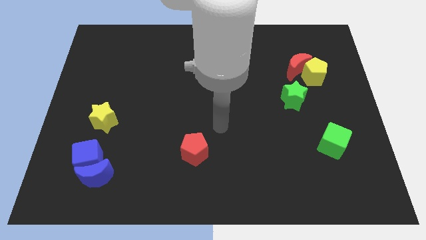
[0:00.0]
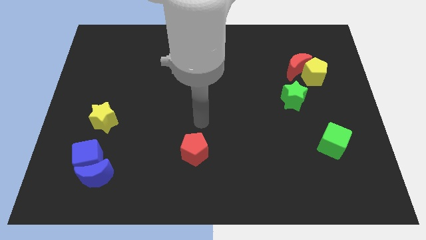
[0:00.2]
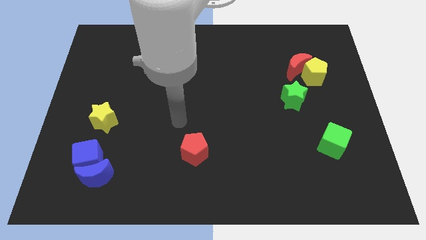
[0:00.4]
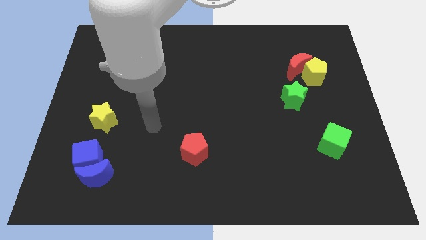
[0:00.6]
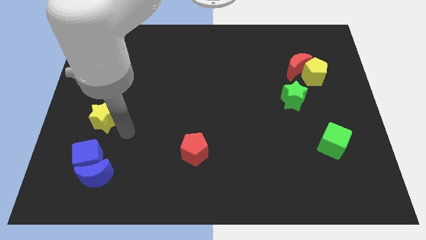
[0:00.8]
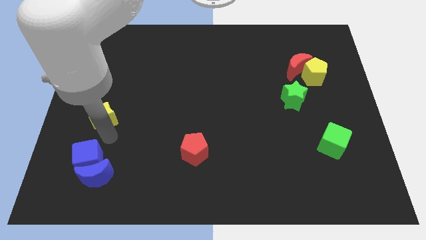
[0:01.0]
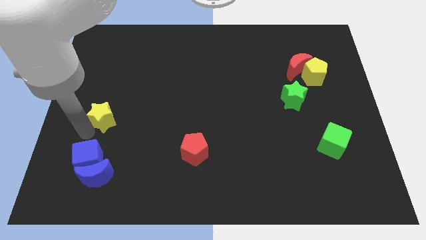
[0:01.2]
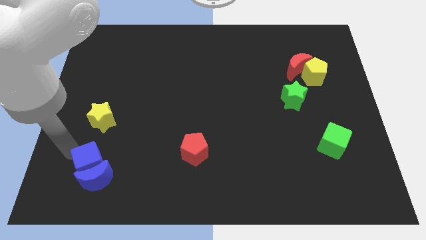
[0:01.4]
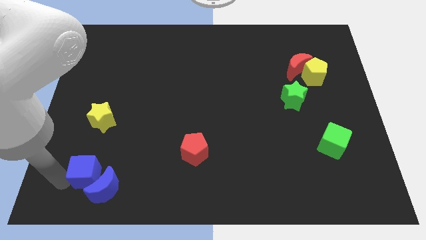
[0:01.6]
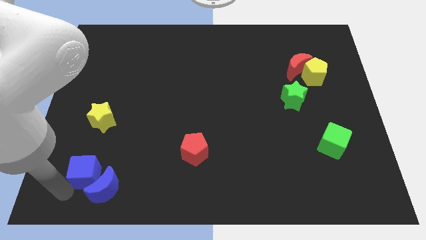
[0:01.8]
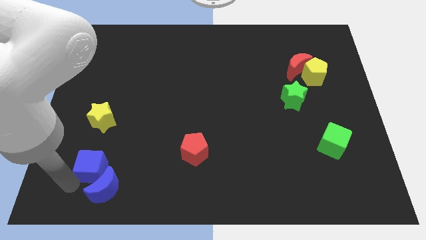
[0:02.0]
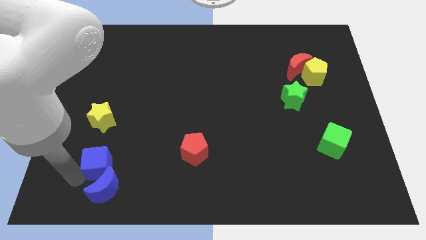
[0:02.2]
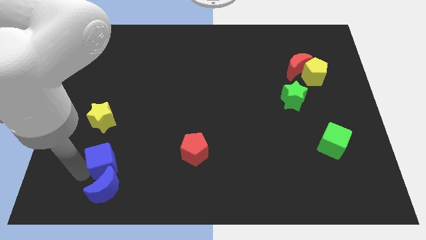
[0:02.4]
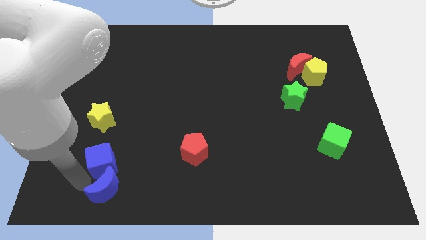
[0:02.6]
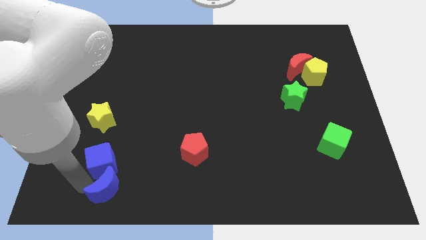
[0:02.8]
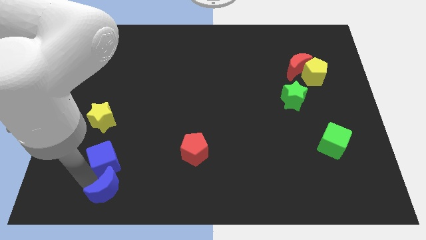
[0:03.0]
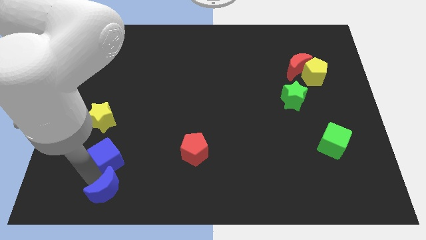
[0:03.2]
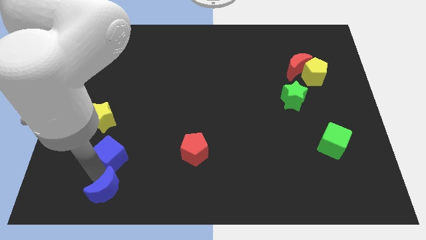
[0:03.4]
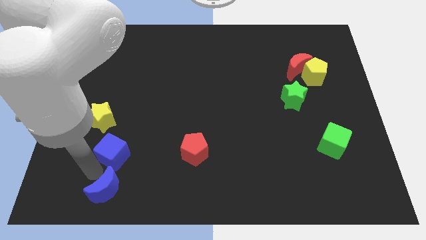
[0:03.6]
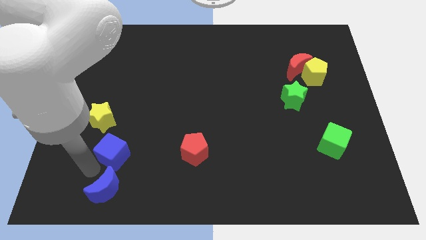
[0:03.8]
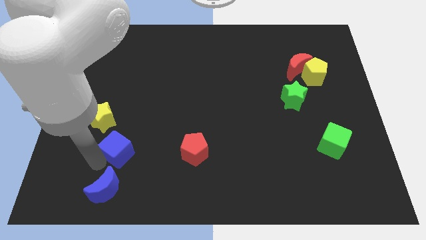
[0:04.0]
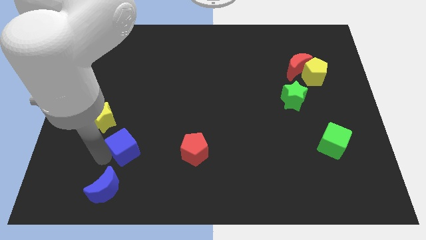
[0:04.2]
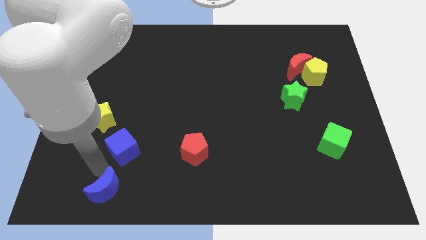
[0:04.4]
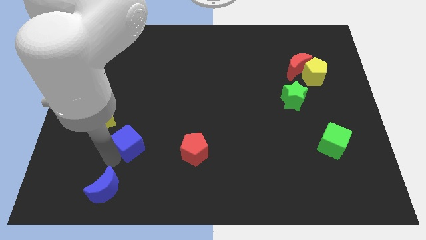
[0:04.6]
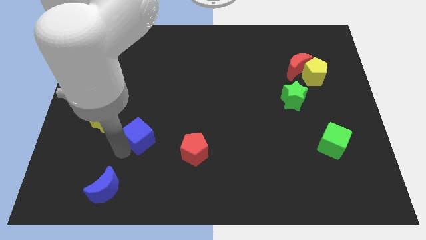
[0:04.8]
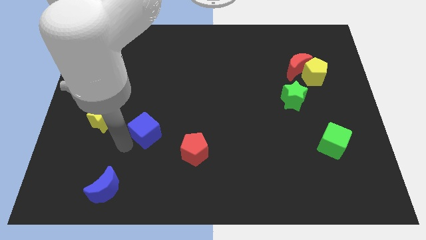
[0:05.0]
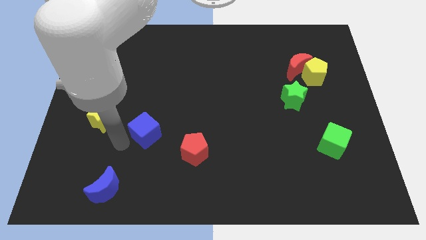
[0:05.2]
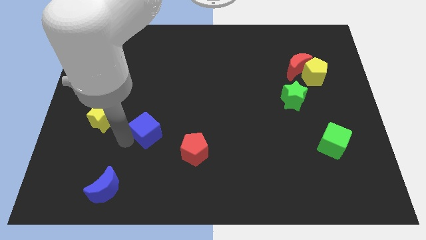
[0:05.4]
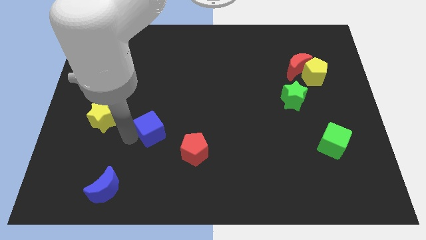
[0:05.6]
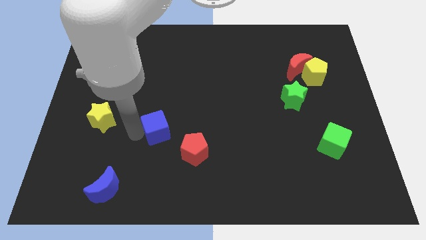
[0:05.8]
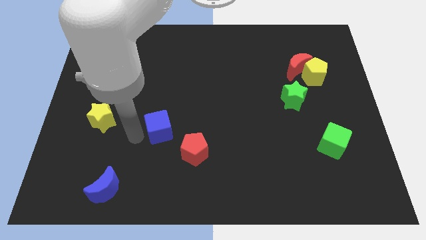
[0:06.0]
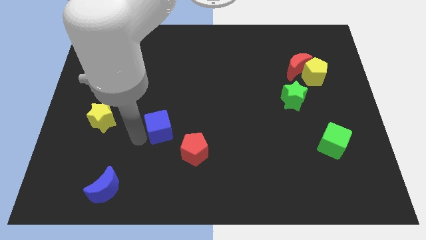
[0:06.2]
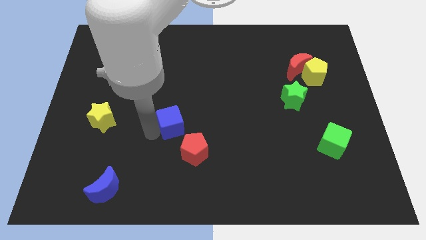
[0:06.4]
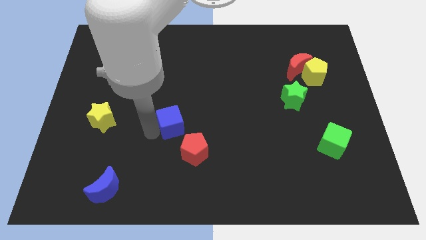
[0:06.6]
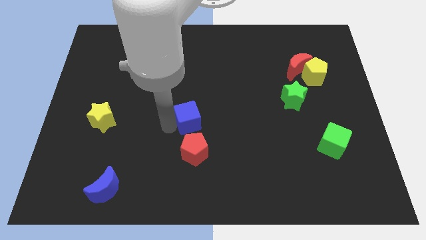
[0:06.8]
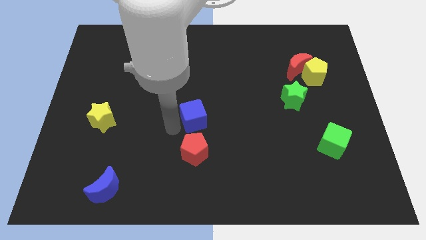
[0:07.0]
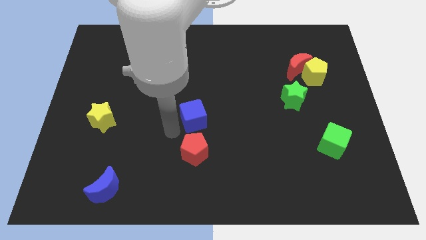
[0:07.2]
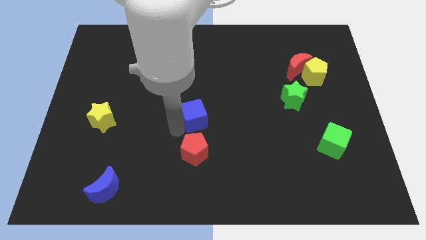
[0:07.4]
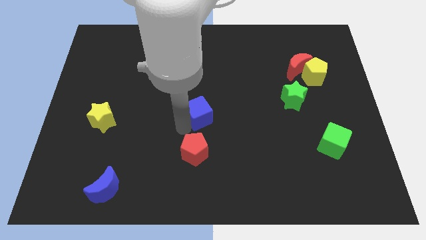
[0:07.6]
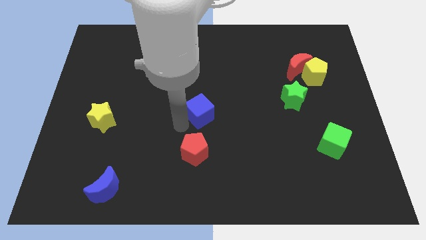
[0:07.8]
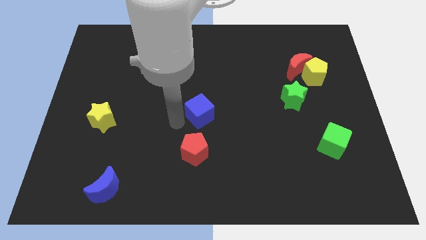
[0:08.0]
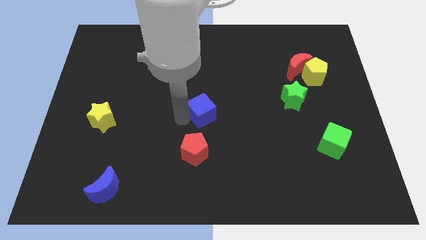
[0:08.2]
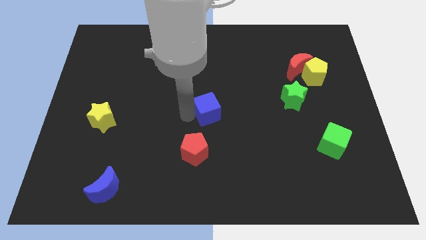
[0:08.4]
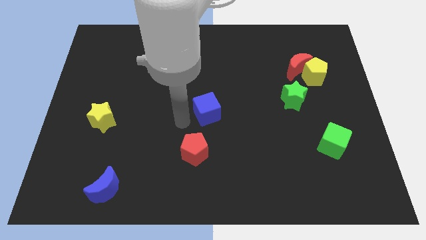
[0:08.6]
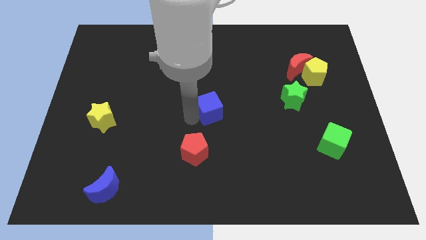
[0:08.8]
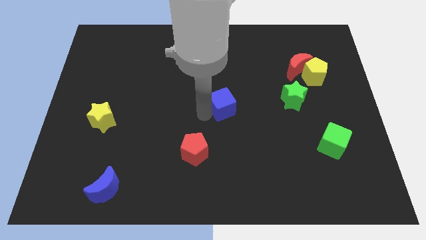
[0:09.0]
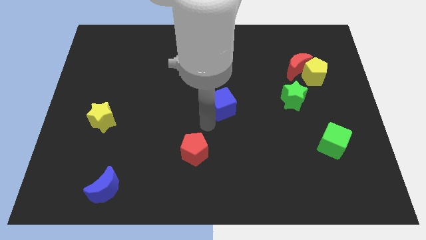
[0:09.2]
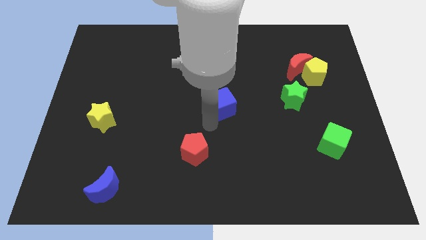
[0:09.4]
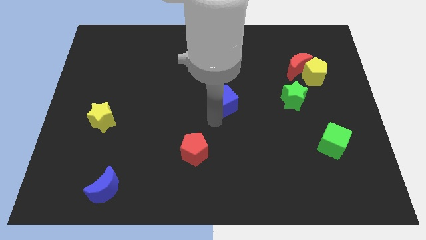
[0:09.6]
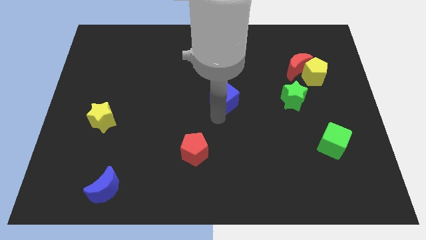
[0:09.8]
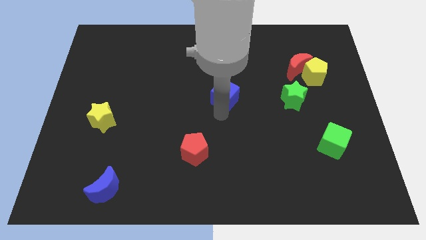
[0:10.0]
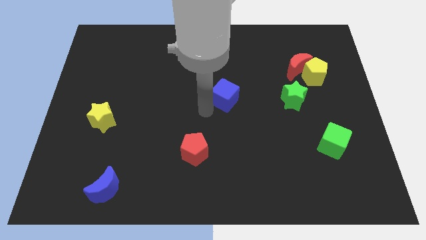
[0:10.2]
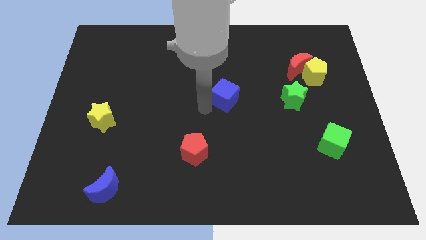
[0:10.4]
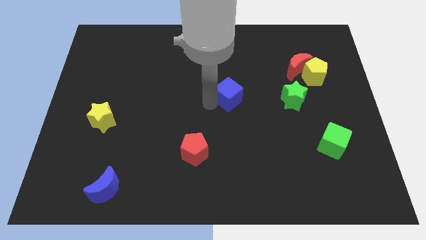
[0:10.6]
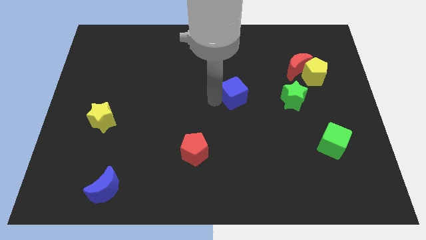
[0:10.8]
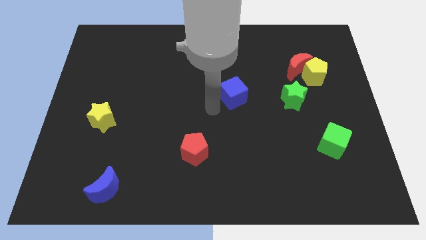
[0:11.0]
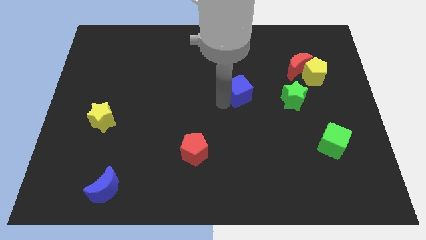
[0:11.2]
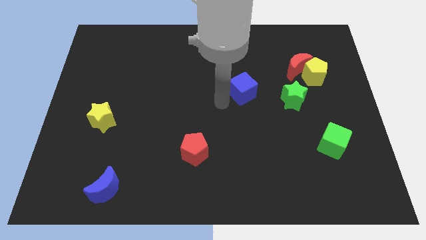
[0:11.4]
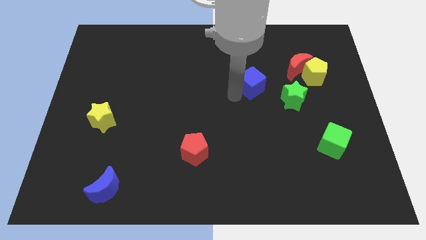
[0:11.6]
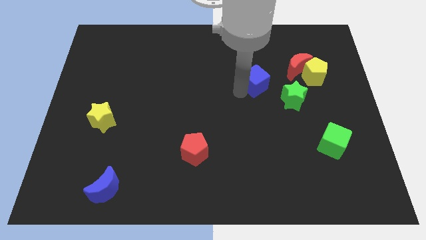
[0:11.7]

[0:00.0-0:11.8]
put the blue cube left of the yellow pentagon

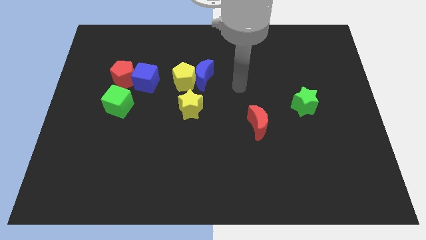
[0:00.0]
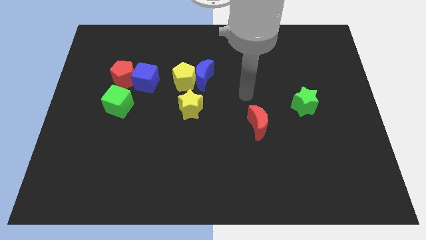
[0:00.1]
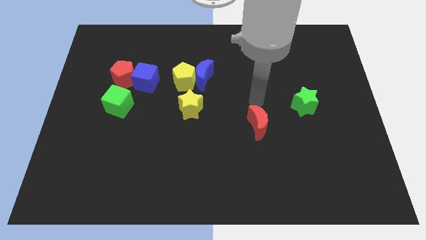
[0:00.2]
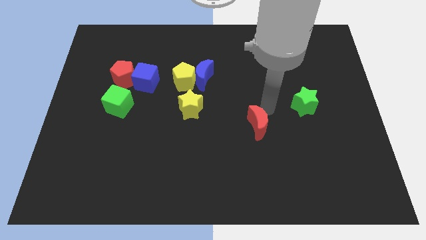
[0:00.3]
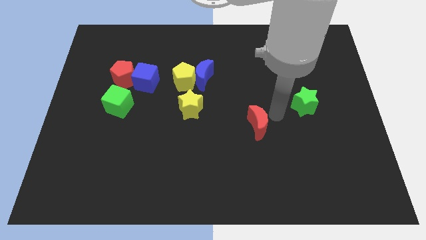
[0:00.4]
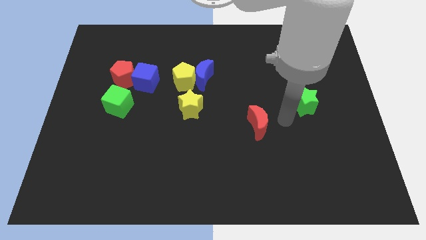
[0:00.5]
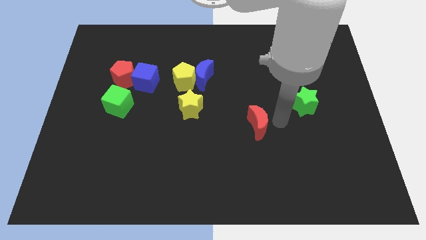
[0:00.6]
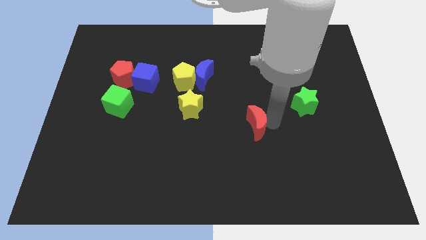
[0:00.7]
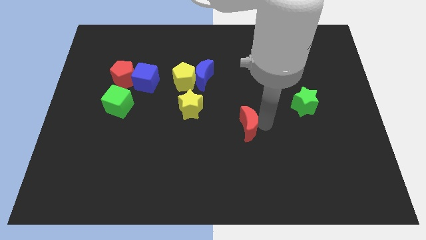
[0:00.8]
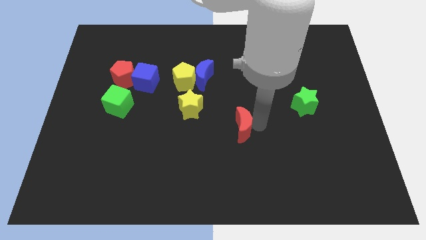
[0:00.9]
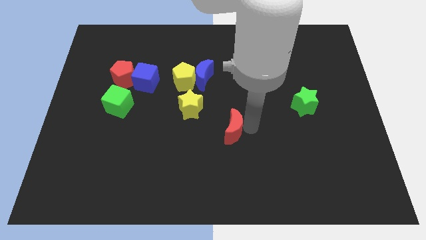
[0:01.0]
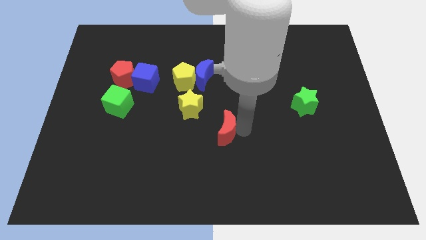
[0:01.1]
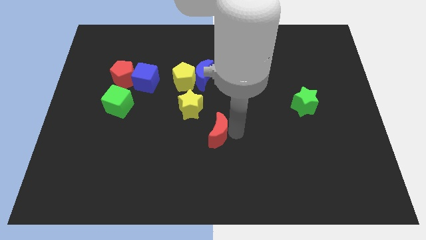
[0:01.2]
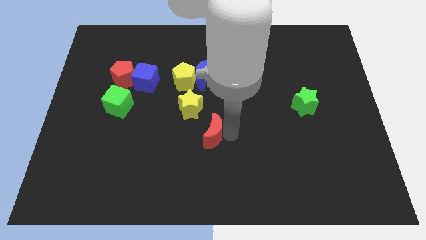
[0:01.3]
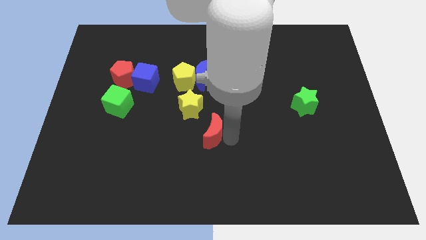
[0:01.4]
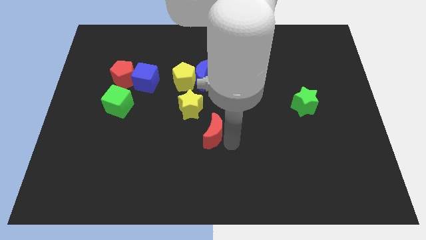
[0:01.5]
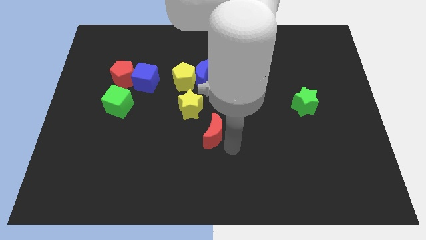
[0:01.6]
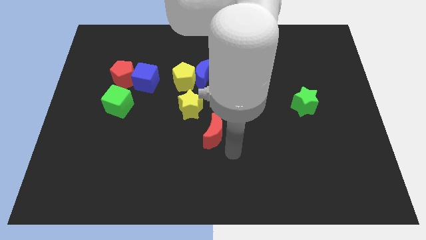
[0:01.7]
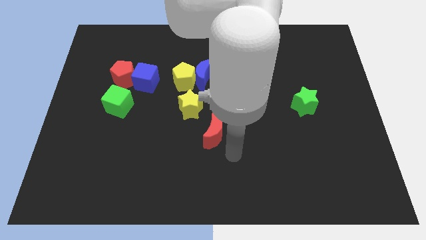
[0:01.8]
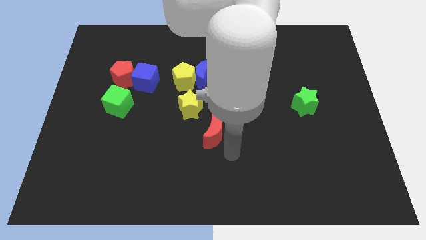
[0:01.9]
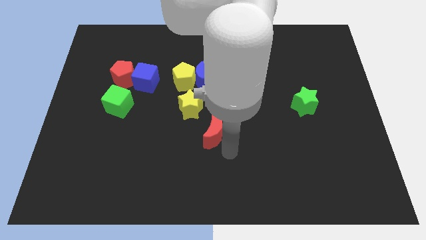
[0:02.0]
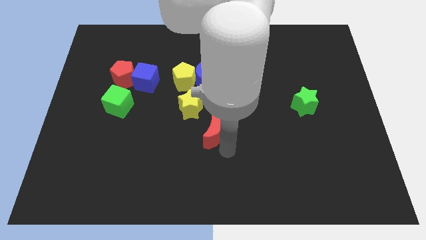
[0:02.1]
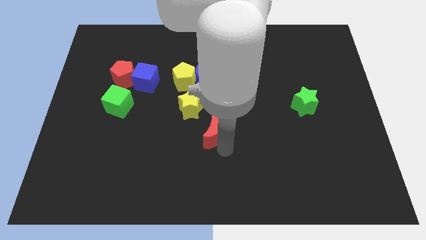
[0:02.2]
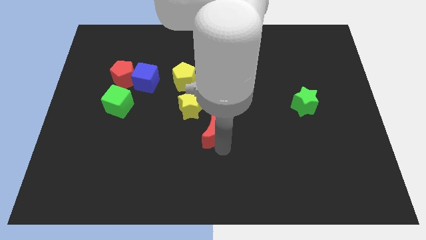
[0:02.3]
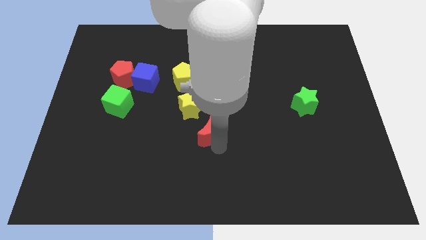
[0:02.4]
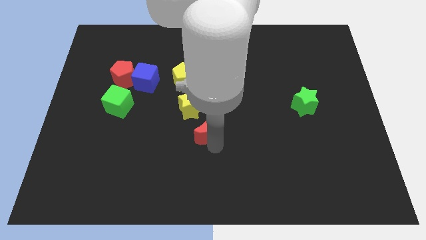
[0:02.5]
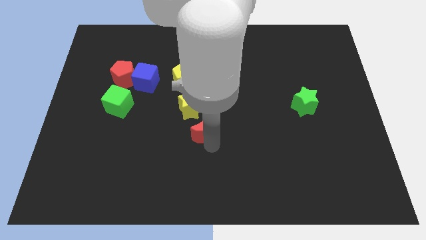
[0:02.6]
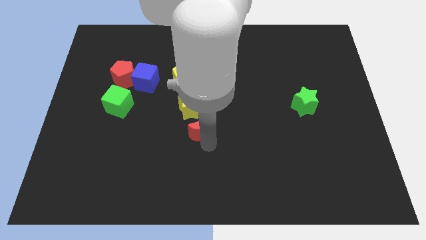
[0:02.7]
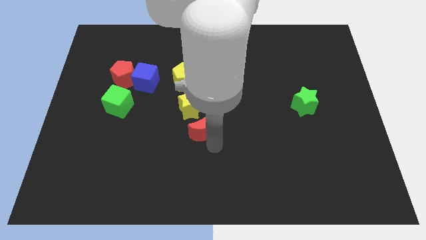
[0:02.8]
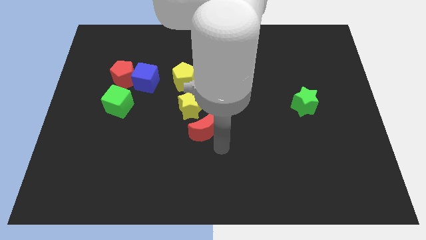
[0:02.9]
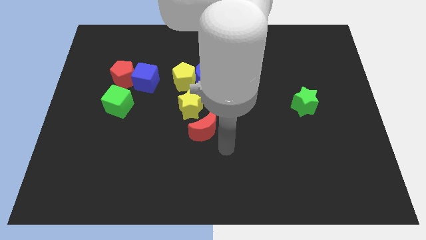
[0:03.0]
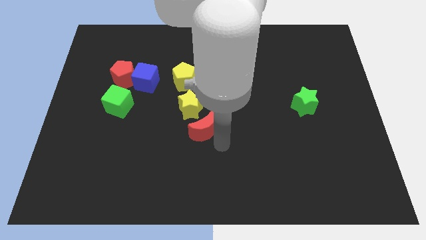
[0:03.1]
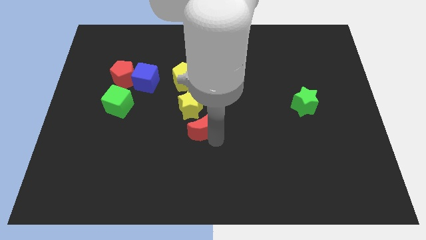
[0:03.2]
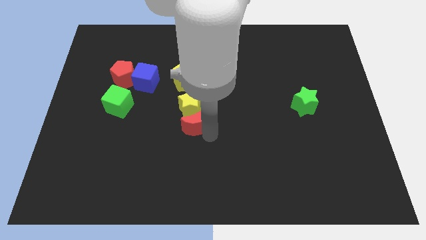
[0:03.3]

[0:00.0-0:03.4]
push the red moon to the bottom of the yellow pentagon
